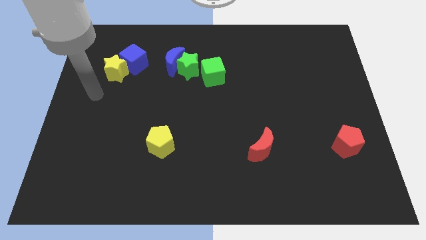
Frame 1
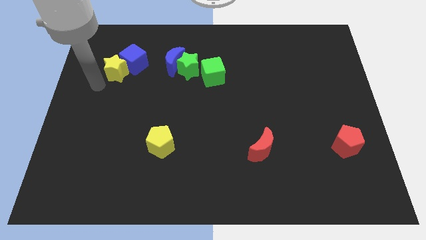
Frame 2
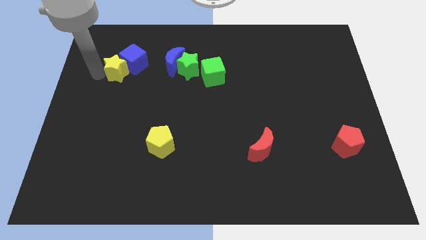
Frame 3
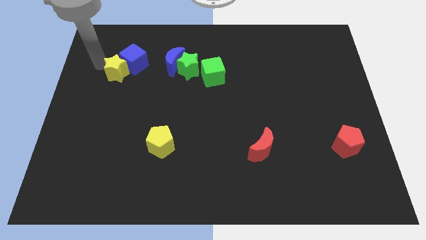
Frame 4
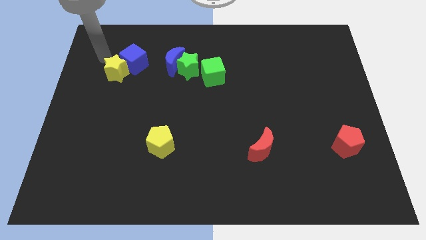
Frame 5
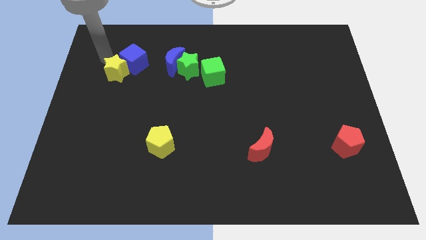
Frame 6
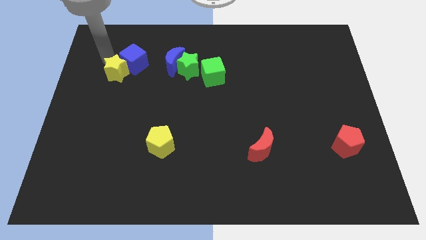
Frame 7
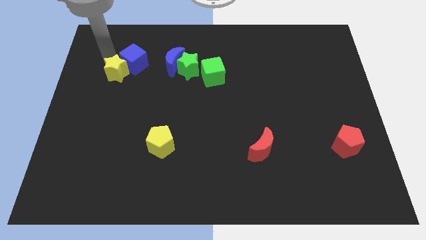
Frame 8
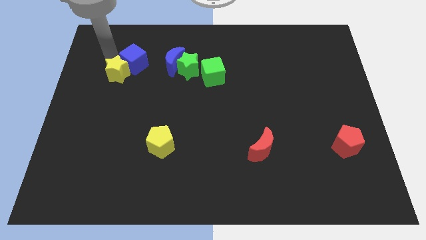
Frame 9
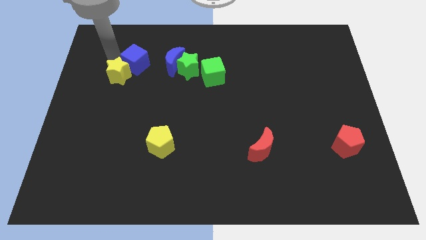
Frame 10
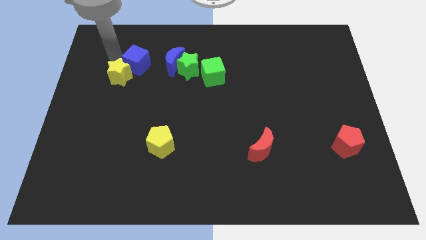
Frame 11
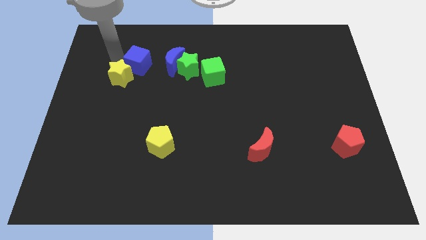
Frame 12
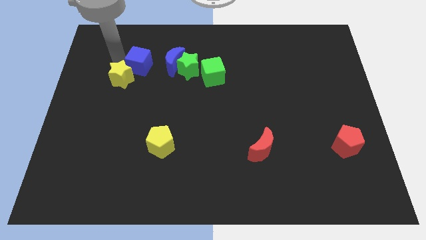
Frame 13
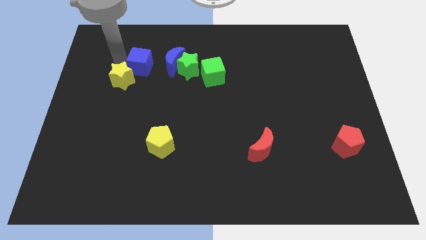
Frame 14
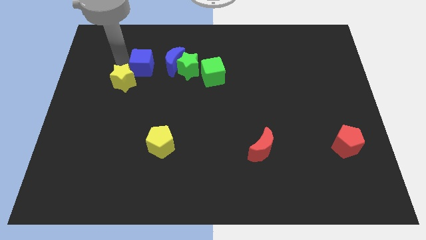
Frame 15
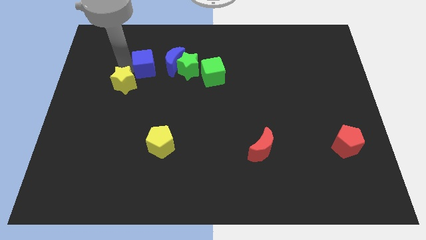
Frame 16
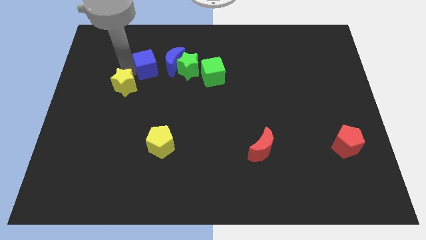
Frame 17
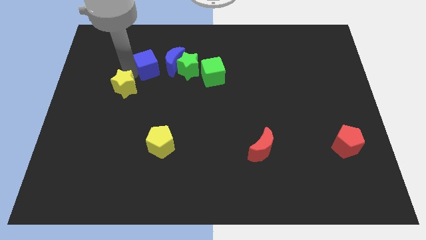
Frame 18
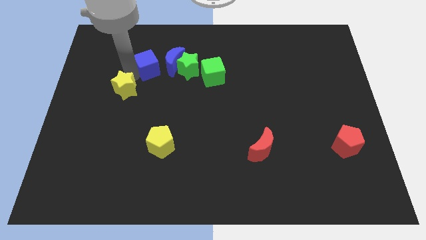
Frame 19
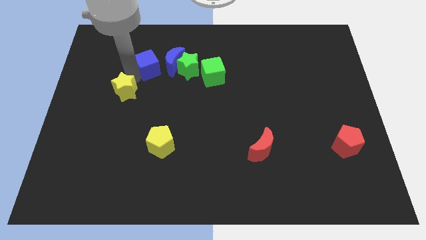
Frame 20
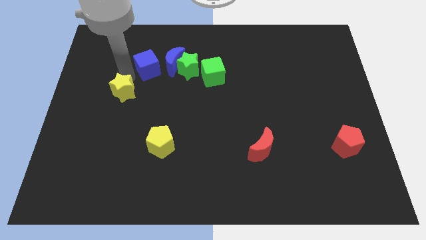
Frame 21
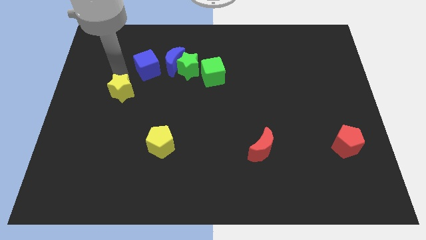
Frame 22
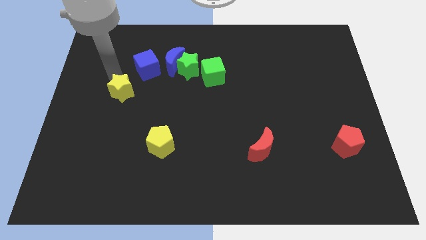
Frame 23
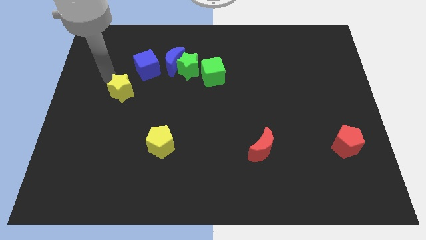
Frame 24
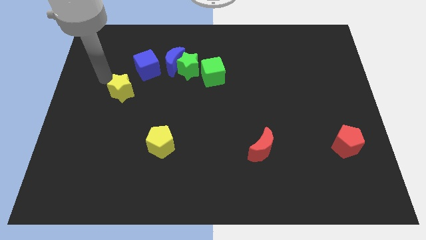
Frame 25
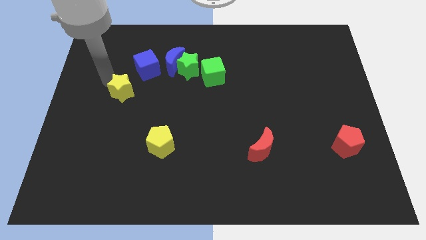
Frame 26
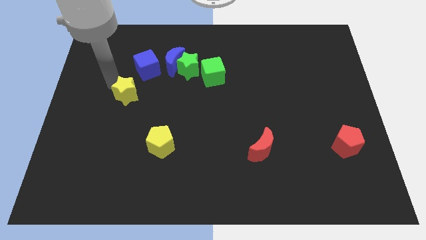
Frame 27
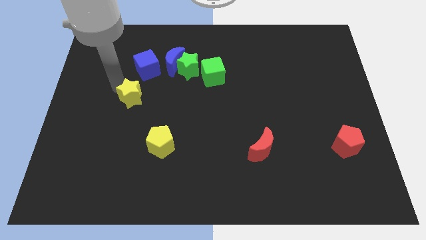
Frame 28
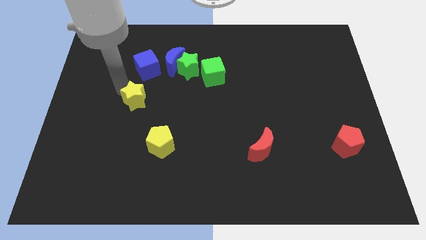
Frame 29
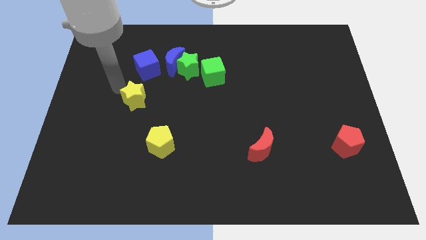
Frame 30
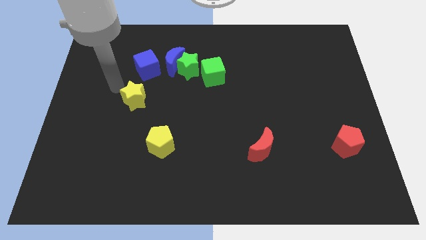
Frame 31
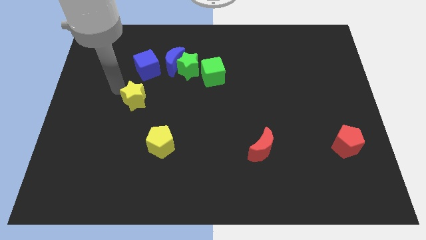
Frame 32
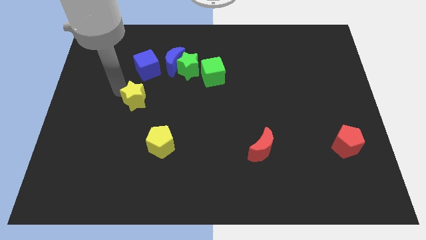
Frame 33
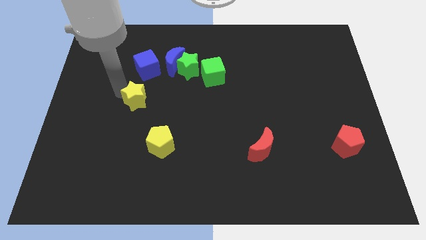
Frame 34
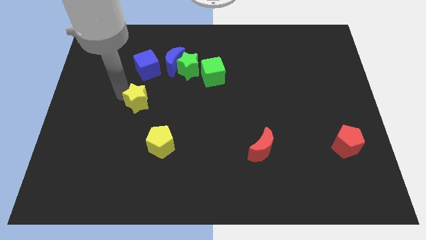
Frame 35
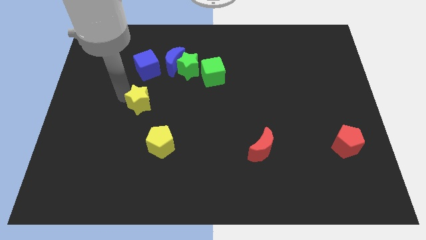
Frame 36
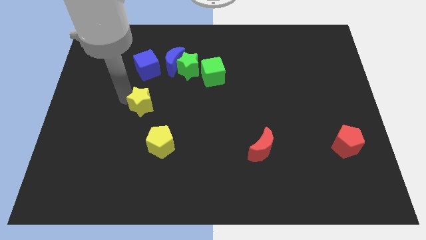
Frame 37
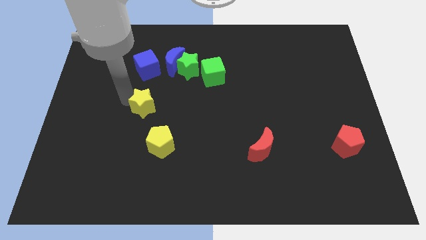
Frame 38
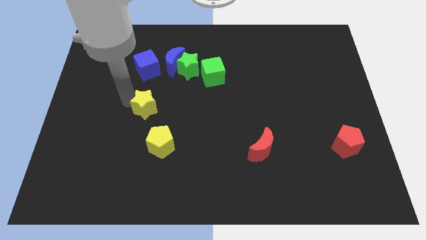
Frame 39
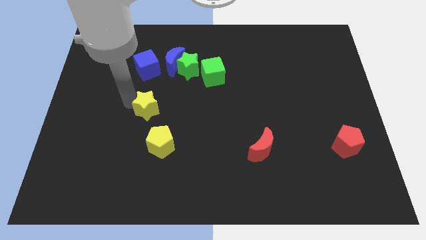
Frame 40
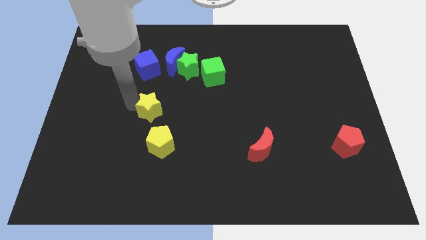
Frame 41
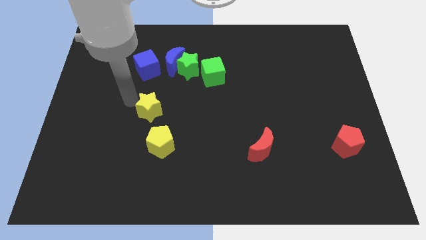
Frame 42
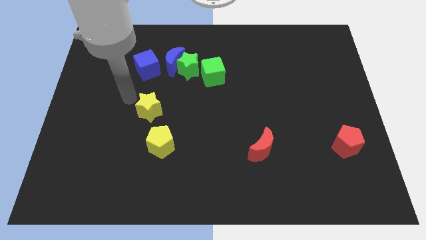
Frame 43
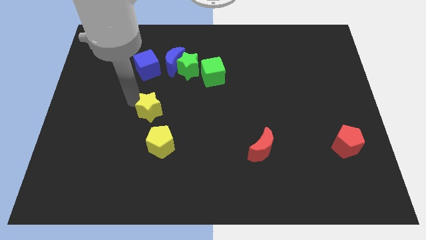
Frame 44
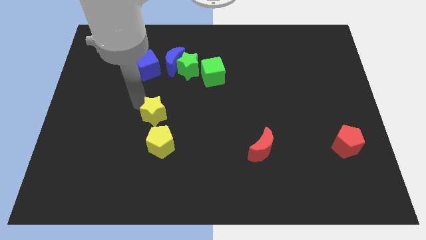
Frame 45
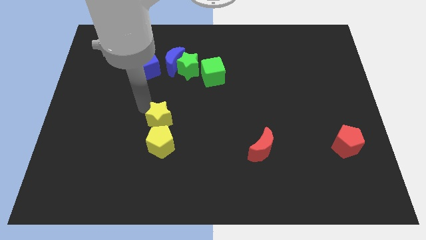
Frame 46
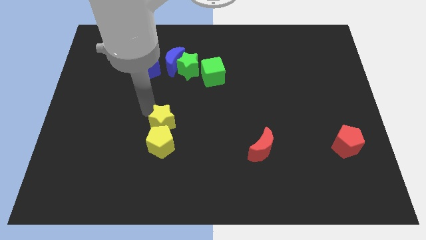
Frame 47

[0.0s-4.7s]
push the yellow star downwards and to the right

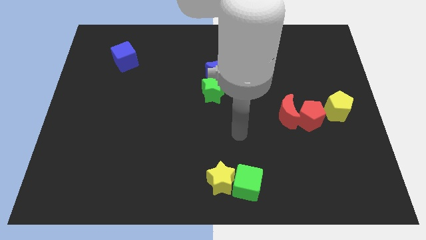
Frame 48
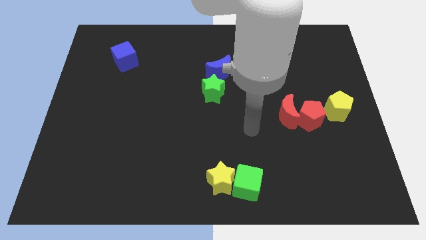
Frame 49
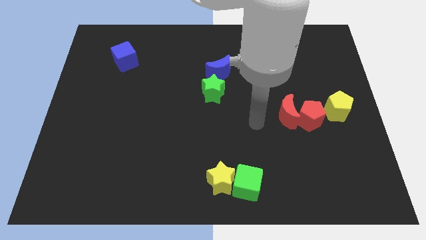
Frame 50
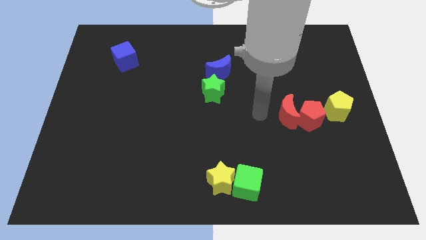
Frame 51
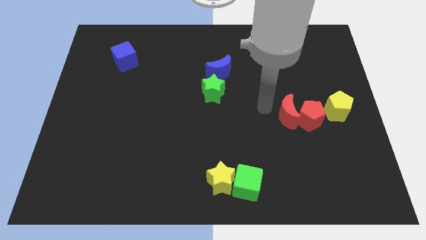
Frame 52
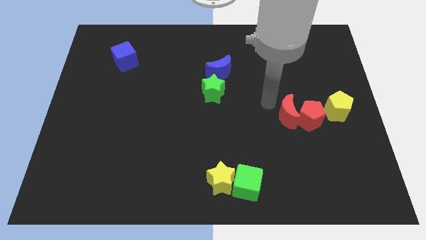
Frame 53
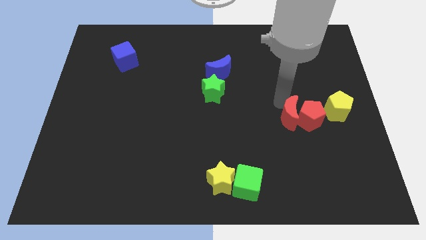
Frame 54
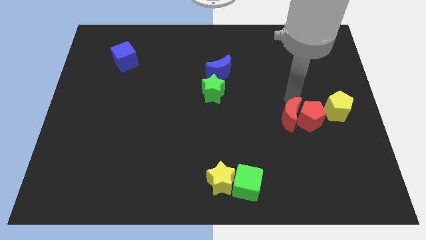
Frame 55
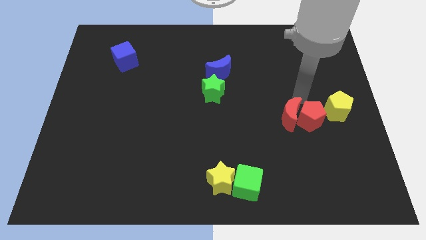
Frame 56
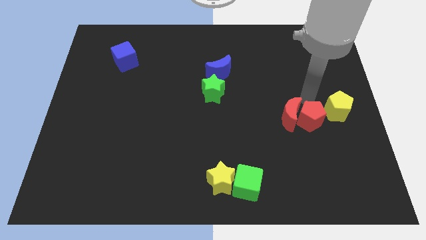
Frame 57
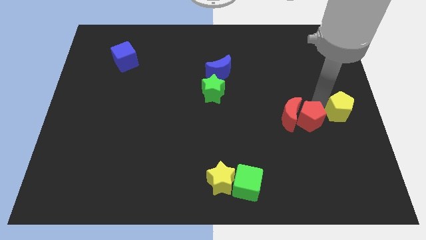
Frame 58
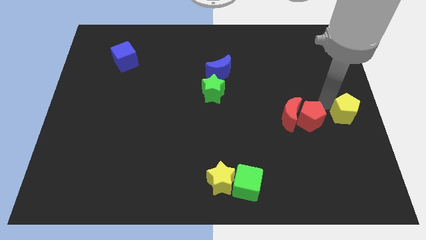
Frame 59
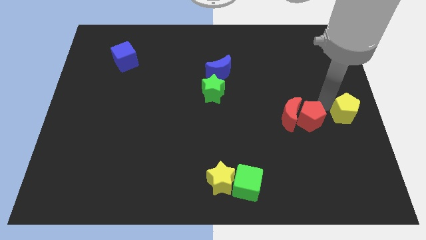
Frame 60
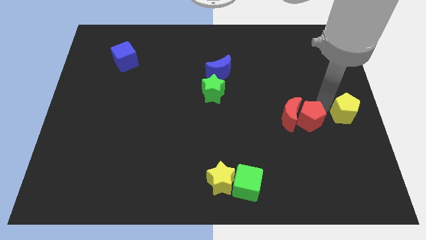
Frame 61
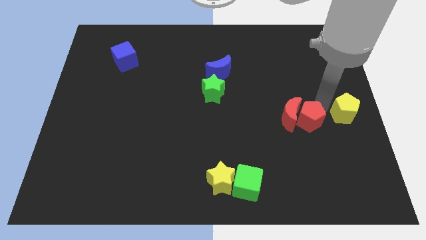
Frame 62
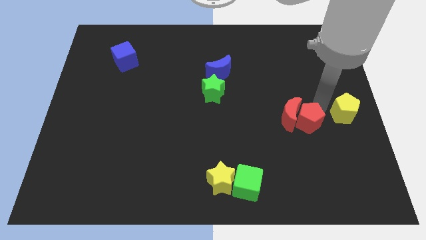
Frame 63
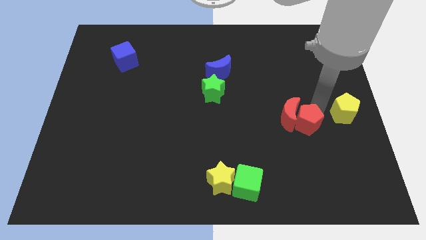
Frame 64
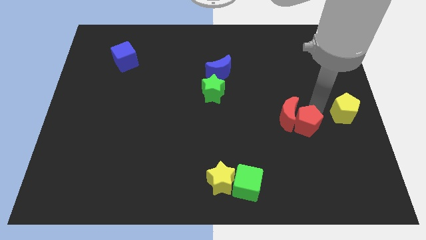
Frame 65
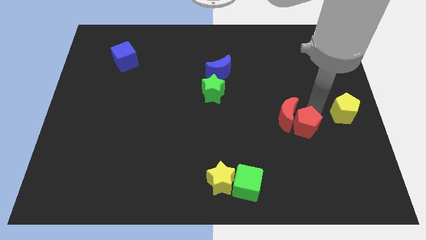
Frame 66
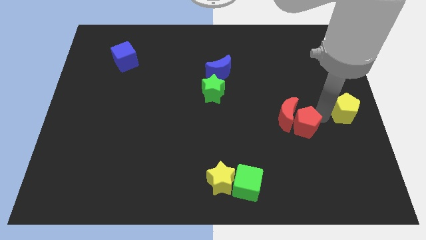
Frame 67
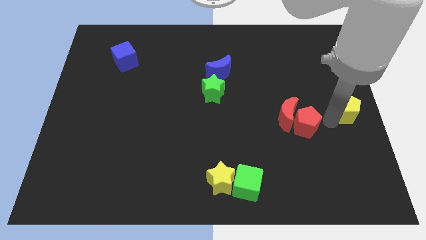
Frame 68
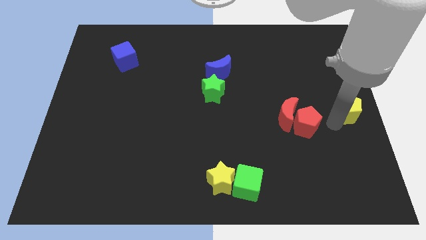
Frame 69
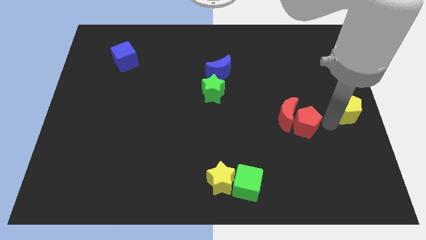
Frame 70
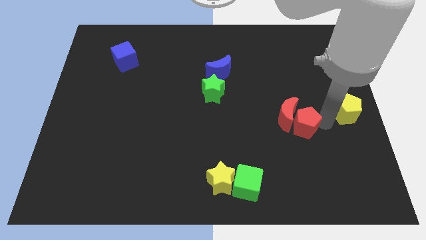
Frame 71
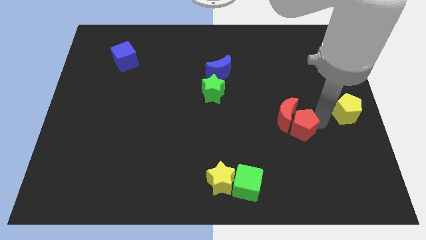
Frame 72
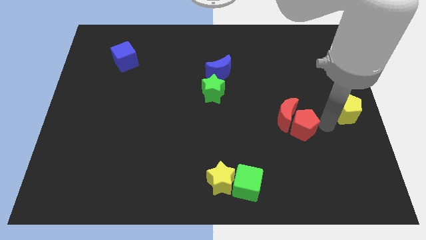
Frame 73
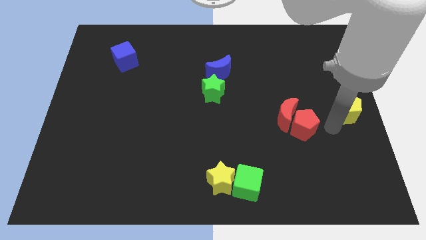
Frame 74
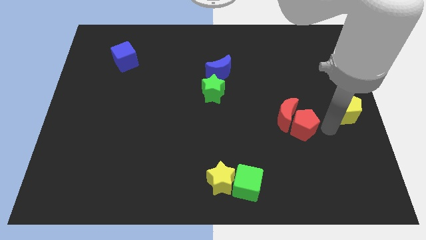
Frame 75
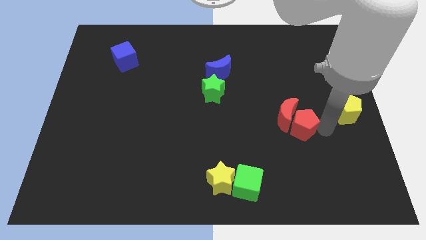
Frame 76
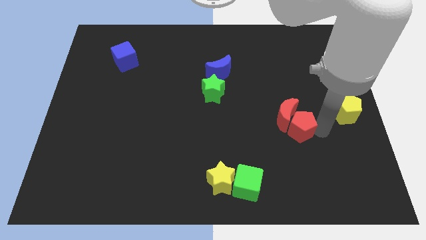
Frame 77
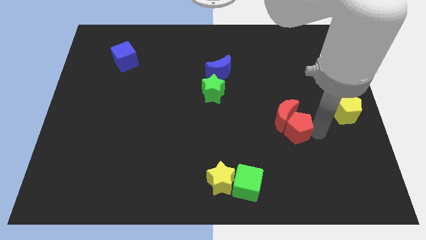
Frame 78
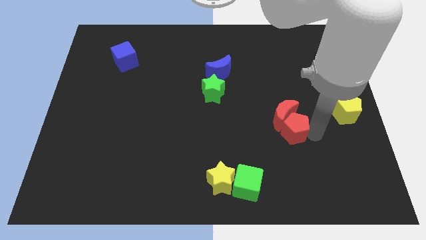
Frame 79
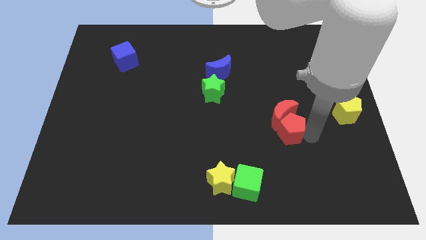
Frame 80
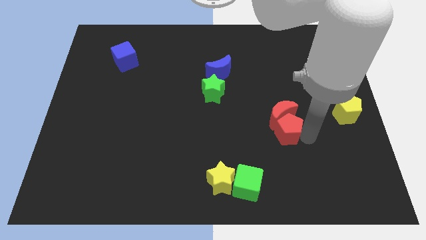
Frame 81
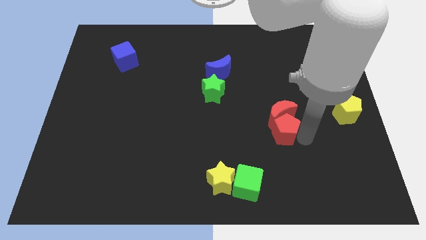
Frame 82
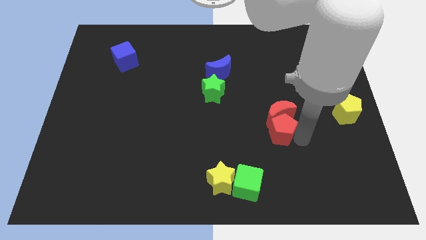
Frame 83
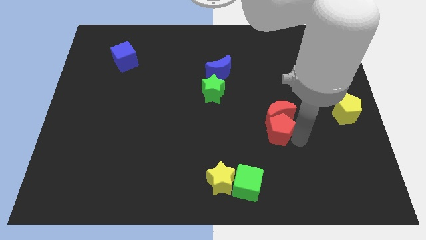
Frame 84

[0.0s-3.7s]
push the red pentagon to the left slightly
